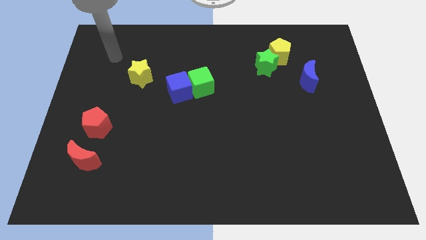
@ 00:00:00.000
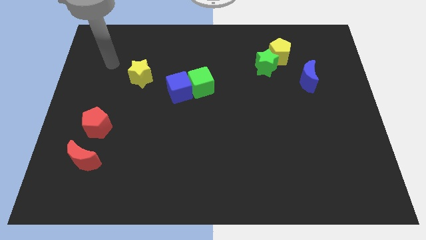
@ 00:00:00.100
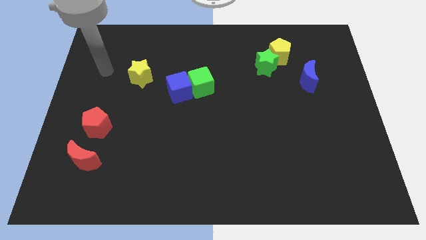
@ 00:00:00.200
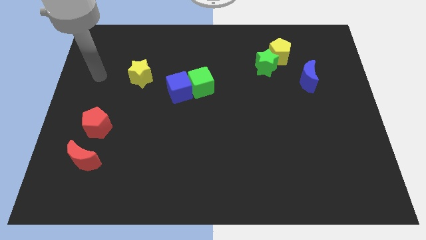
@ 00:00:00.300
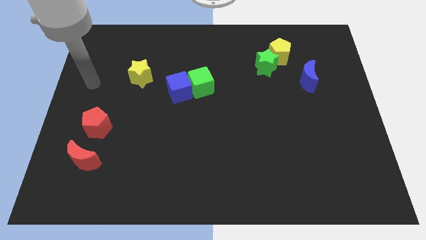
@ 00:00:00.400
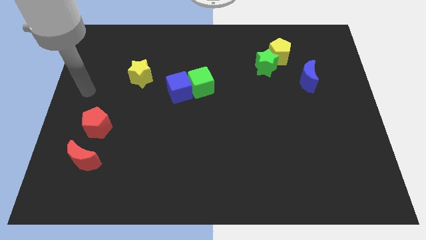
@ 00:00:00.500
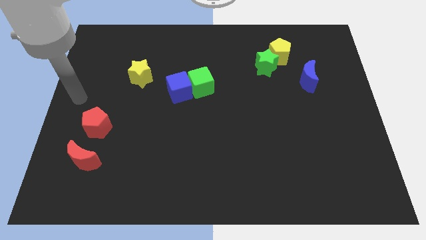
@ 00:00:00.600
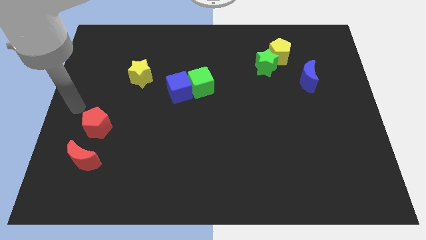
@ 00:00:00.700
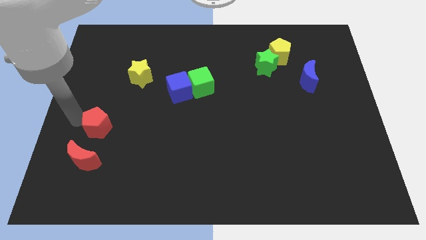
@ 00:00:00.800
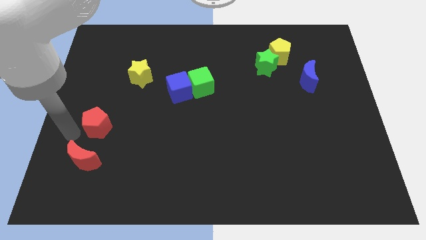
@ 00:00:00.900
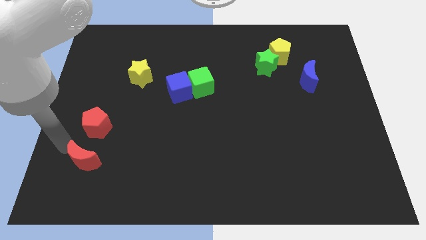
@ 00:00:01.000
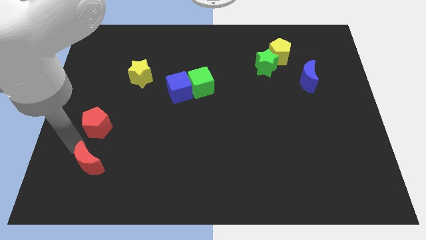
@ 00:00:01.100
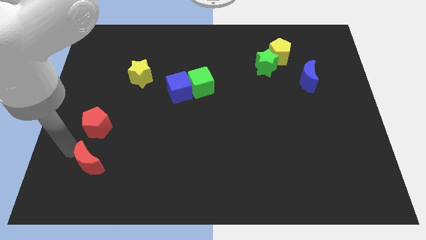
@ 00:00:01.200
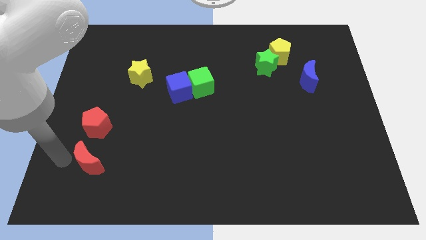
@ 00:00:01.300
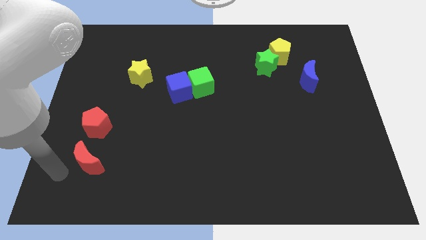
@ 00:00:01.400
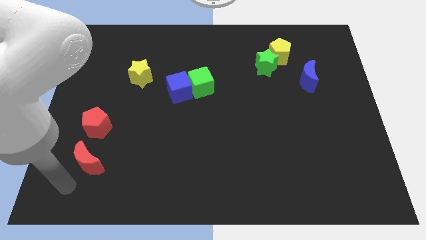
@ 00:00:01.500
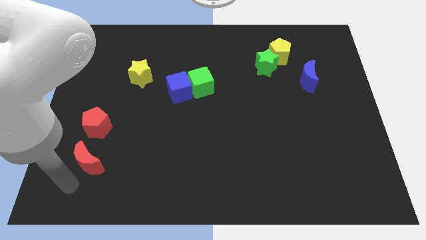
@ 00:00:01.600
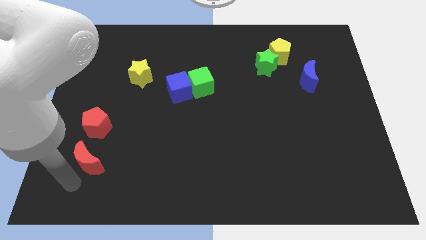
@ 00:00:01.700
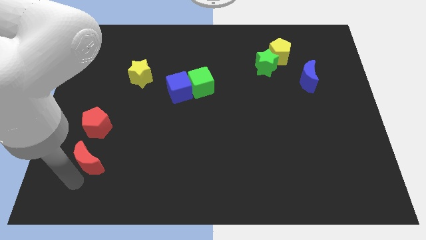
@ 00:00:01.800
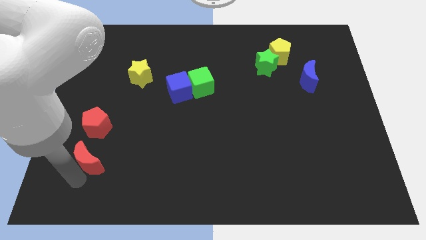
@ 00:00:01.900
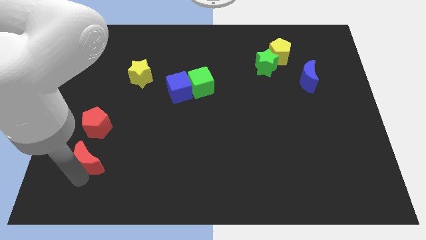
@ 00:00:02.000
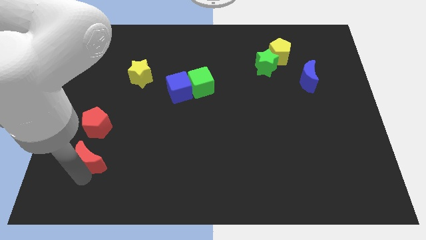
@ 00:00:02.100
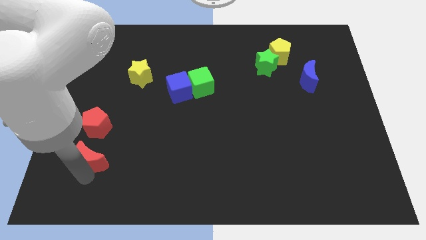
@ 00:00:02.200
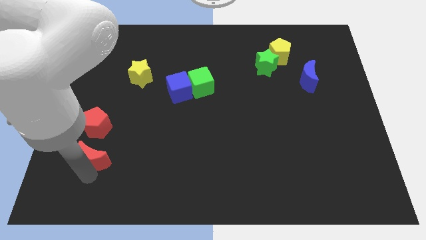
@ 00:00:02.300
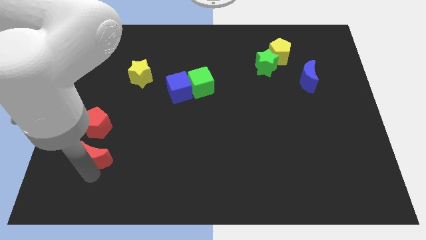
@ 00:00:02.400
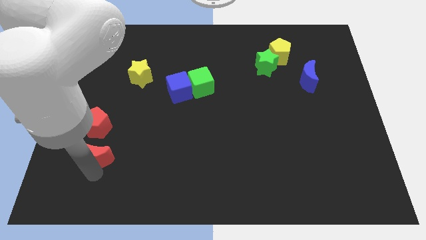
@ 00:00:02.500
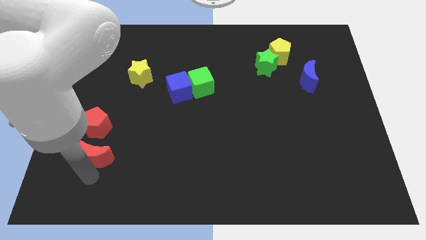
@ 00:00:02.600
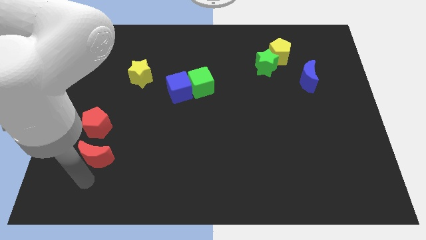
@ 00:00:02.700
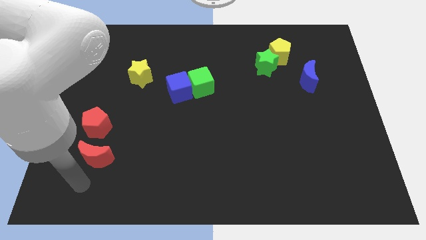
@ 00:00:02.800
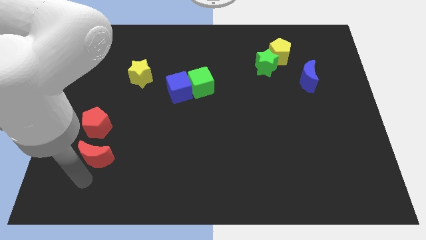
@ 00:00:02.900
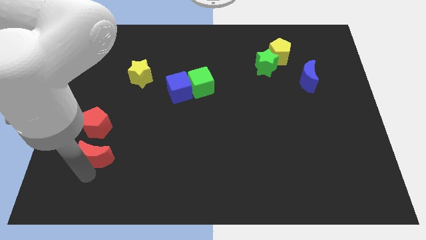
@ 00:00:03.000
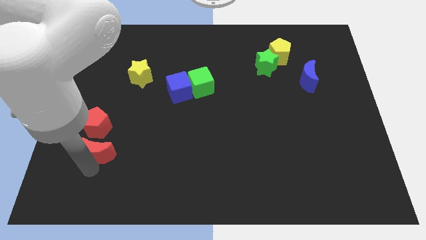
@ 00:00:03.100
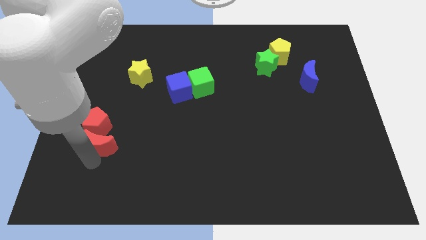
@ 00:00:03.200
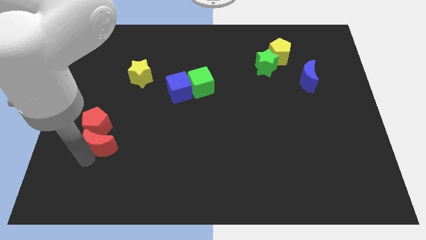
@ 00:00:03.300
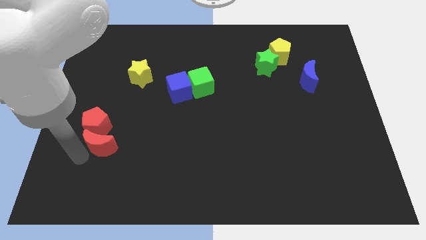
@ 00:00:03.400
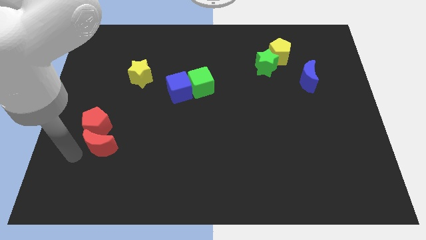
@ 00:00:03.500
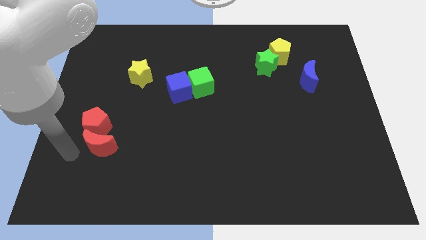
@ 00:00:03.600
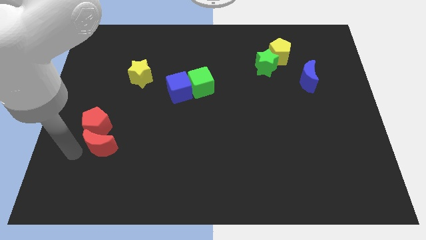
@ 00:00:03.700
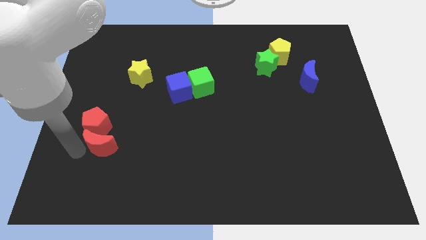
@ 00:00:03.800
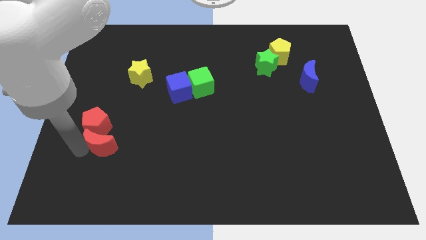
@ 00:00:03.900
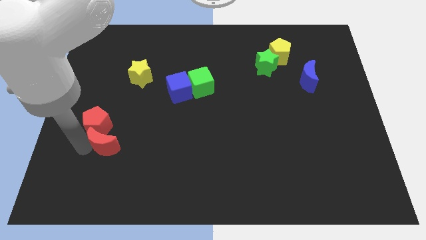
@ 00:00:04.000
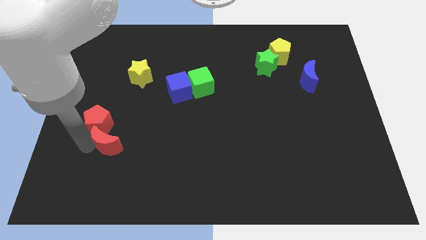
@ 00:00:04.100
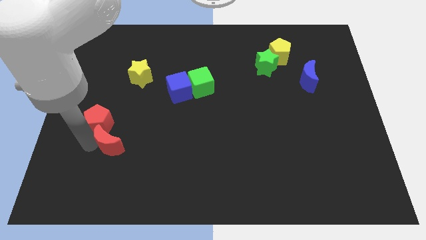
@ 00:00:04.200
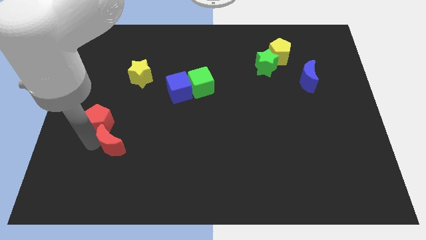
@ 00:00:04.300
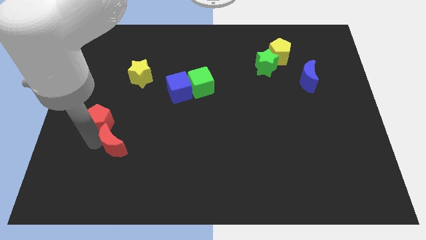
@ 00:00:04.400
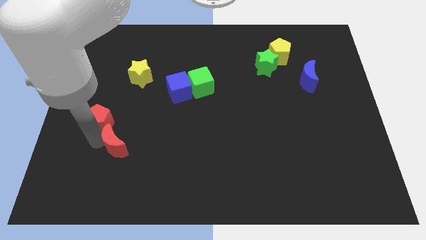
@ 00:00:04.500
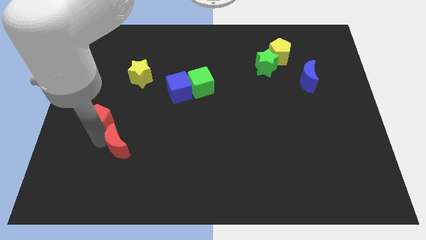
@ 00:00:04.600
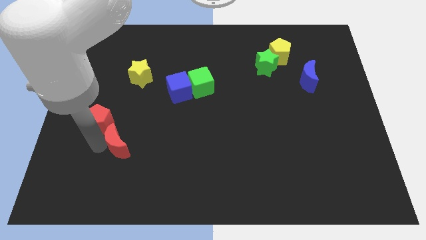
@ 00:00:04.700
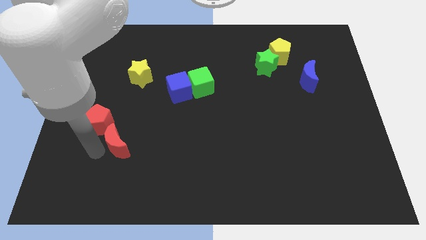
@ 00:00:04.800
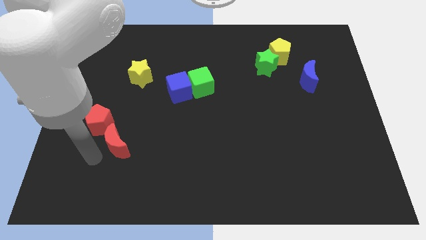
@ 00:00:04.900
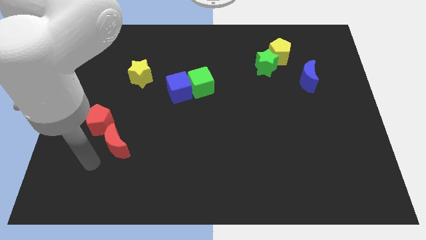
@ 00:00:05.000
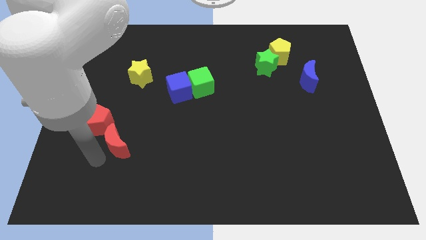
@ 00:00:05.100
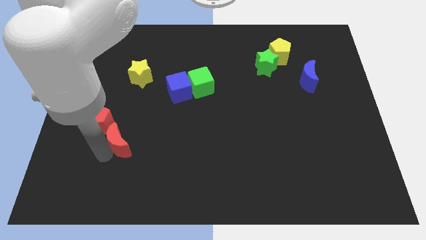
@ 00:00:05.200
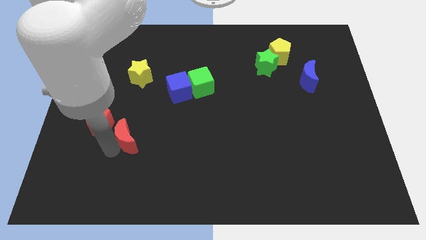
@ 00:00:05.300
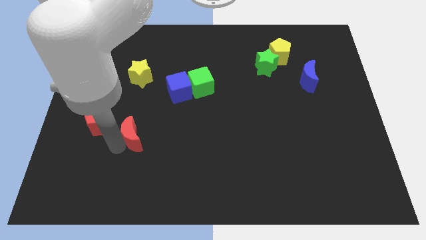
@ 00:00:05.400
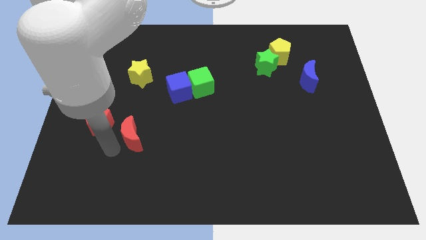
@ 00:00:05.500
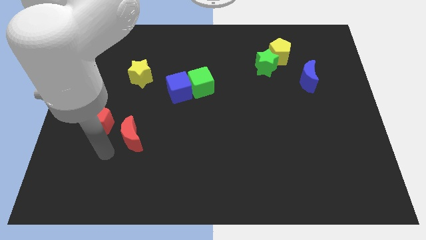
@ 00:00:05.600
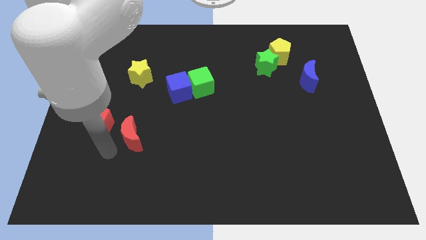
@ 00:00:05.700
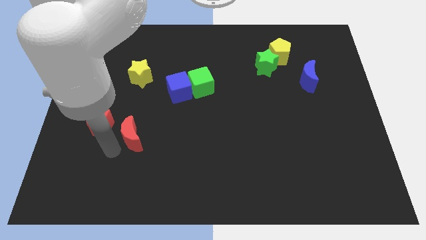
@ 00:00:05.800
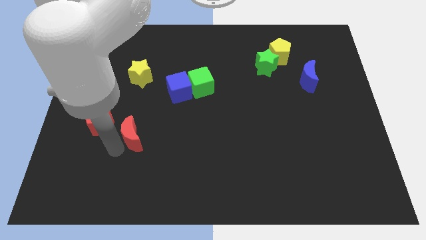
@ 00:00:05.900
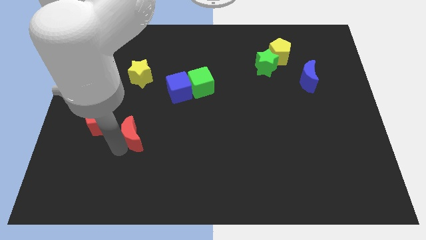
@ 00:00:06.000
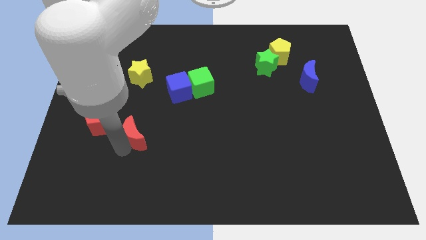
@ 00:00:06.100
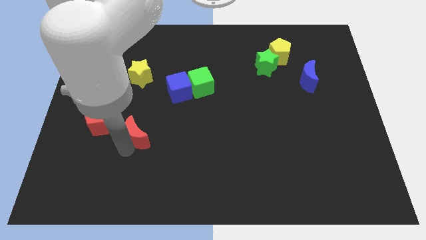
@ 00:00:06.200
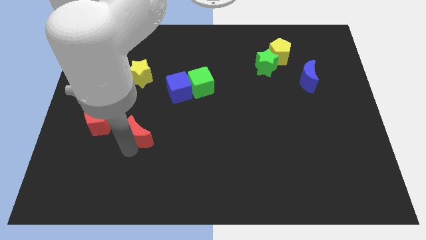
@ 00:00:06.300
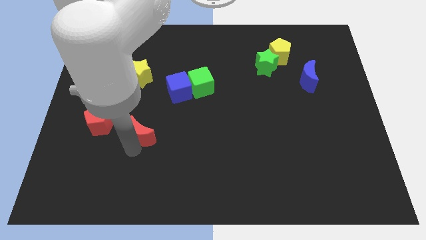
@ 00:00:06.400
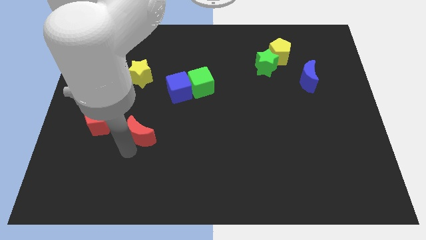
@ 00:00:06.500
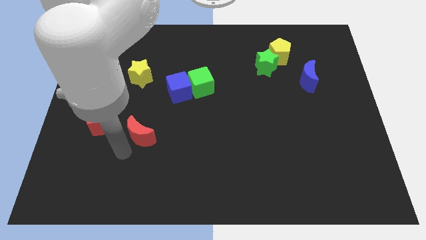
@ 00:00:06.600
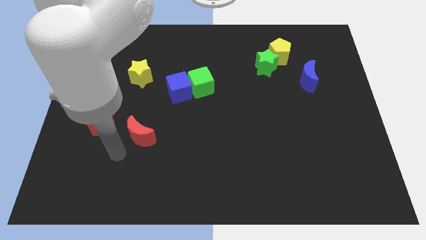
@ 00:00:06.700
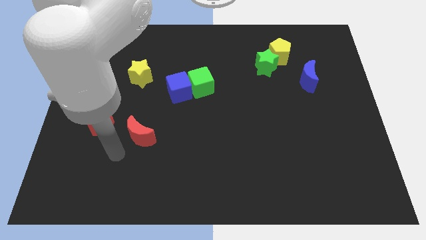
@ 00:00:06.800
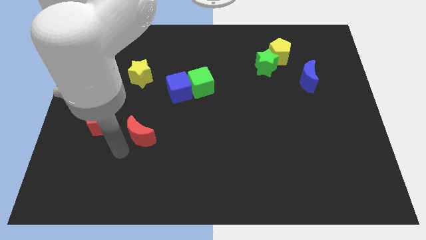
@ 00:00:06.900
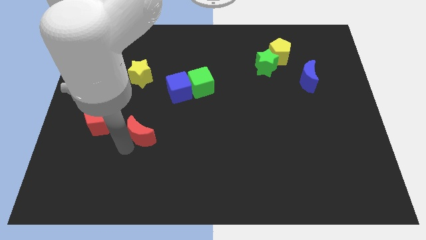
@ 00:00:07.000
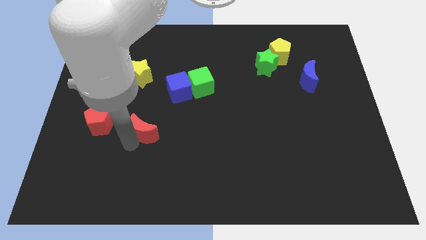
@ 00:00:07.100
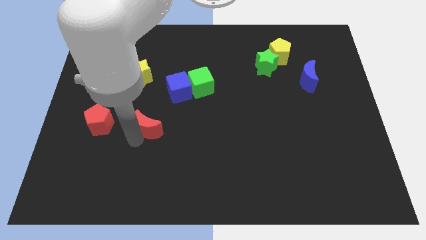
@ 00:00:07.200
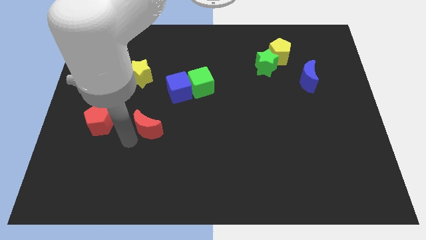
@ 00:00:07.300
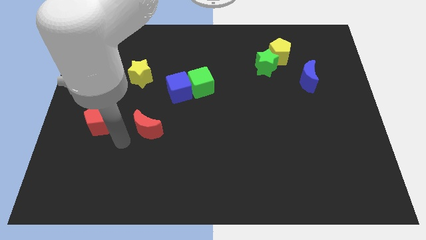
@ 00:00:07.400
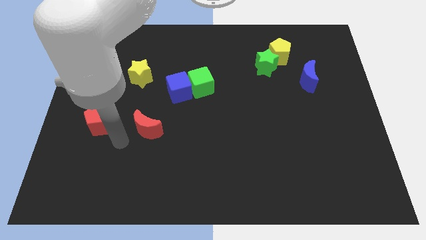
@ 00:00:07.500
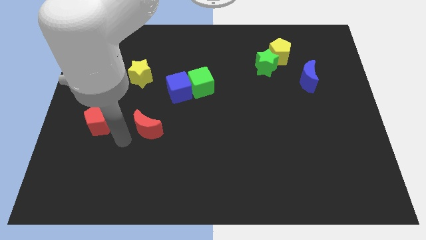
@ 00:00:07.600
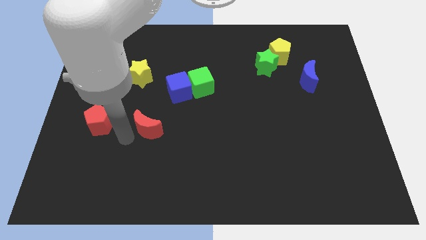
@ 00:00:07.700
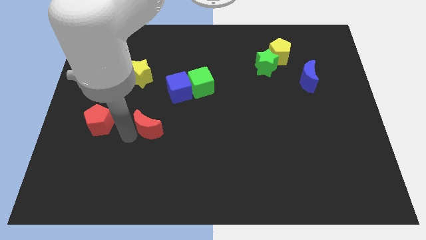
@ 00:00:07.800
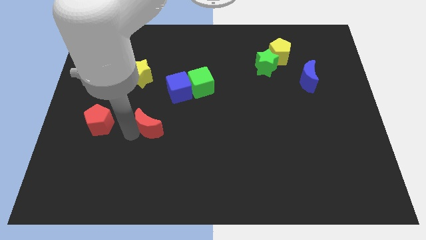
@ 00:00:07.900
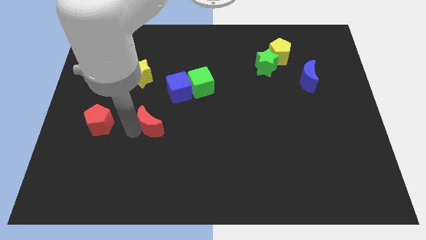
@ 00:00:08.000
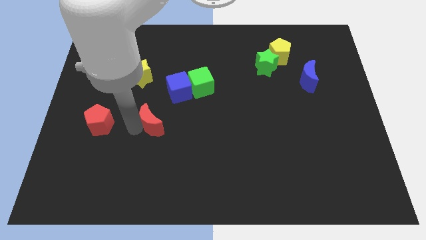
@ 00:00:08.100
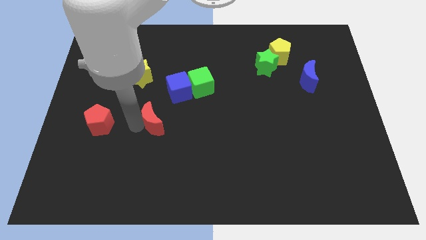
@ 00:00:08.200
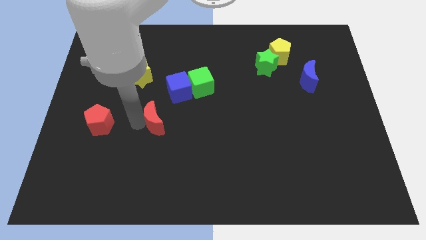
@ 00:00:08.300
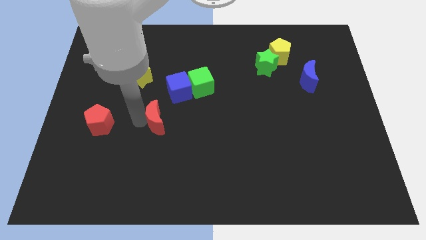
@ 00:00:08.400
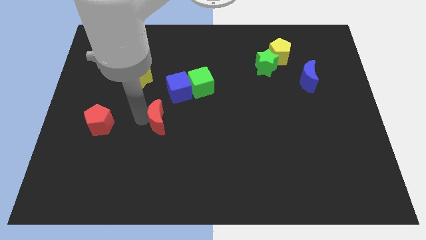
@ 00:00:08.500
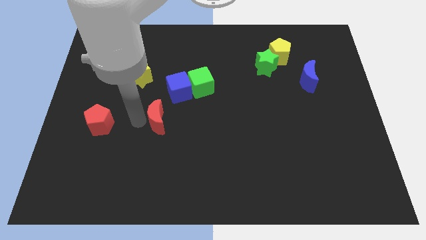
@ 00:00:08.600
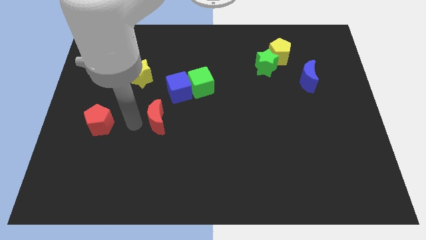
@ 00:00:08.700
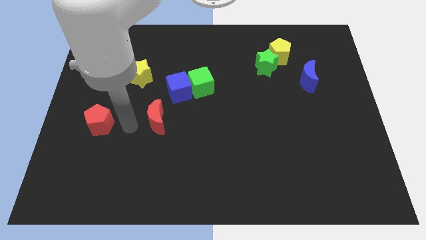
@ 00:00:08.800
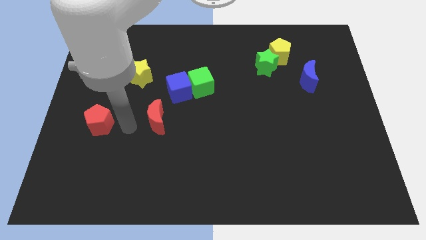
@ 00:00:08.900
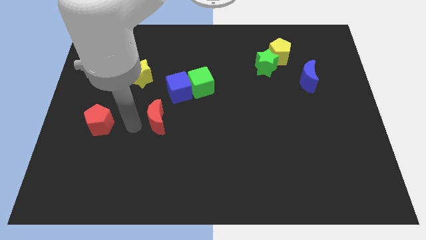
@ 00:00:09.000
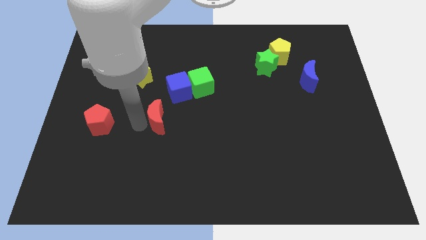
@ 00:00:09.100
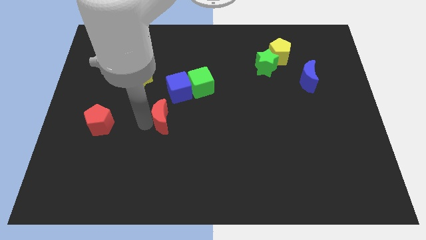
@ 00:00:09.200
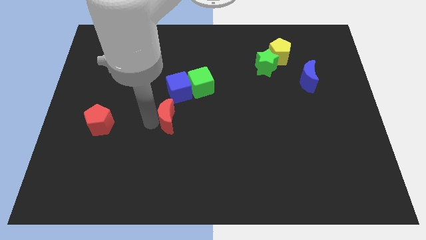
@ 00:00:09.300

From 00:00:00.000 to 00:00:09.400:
put the red moon to the center of the board
